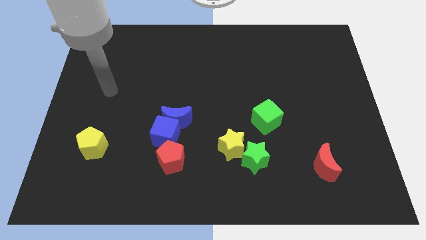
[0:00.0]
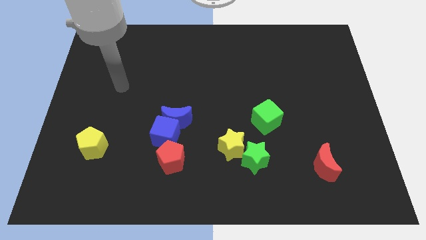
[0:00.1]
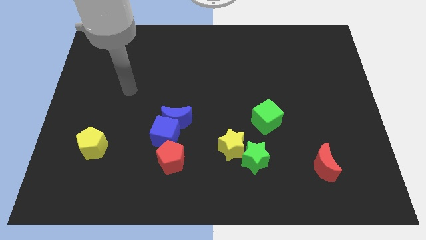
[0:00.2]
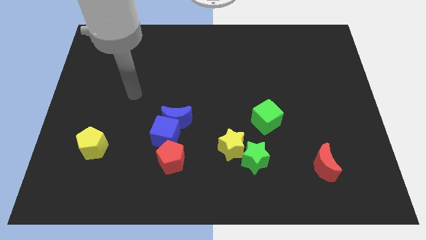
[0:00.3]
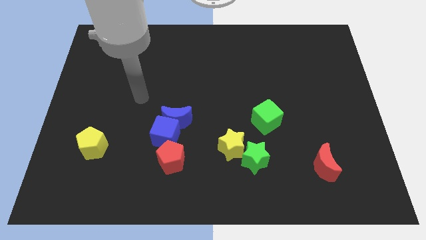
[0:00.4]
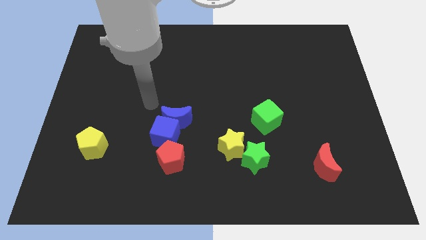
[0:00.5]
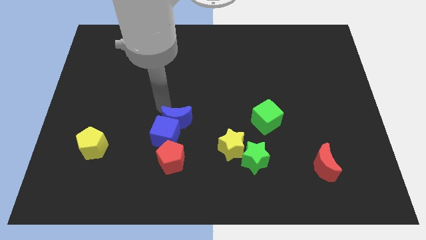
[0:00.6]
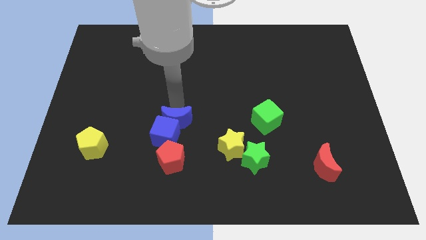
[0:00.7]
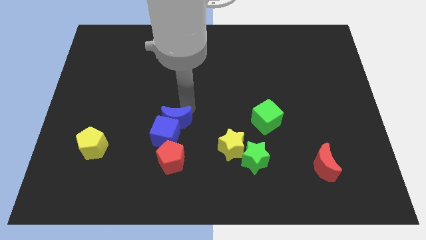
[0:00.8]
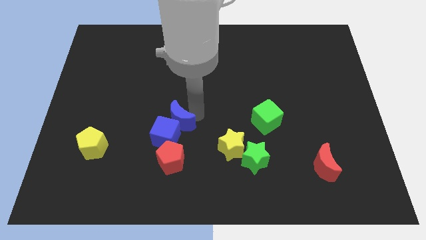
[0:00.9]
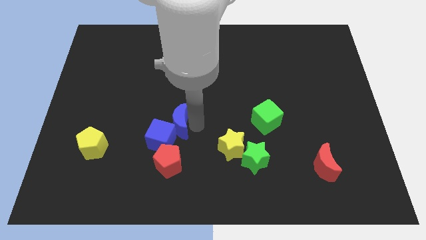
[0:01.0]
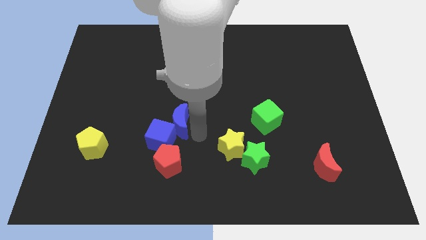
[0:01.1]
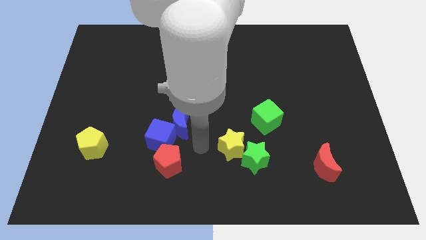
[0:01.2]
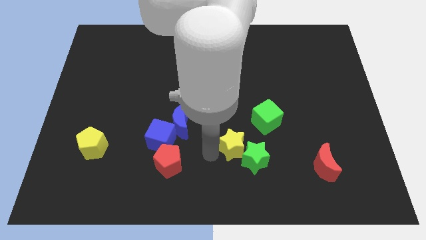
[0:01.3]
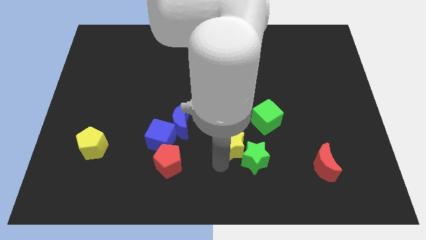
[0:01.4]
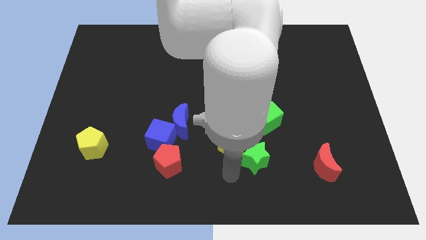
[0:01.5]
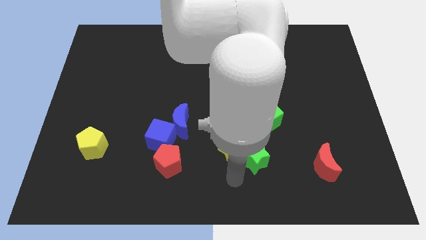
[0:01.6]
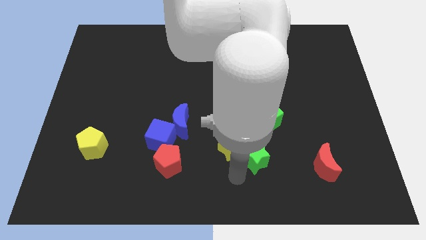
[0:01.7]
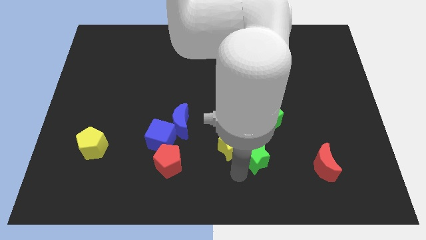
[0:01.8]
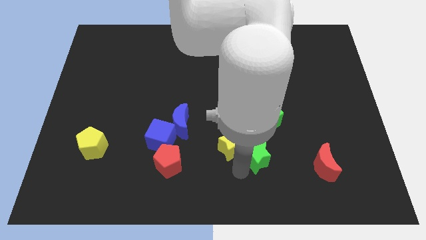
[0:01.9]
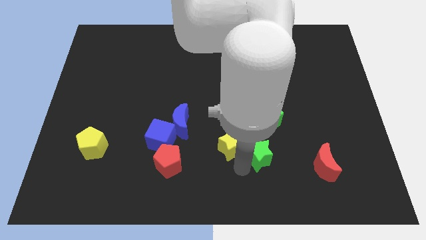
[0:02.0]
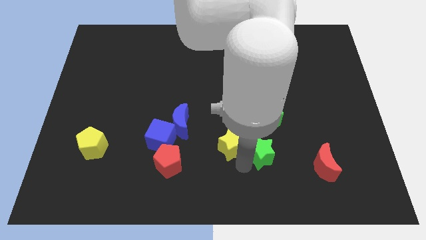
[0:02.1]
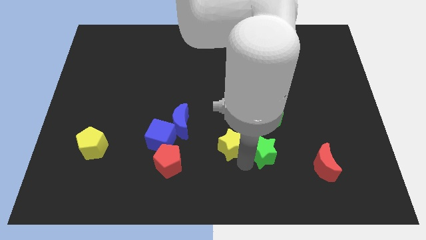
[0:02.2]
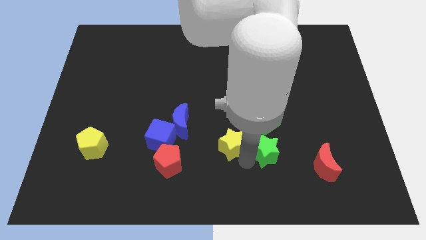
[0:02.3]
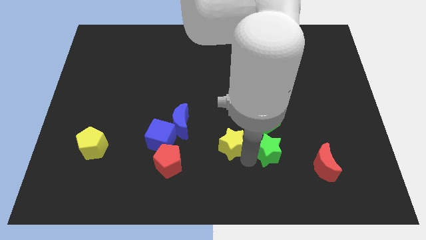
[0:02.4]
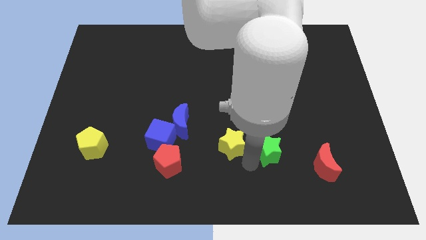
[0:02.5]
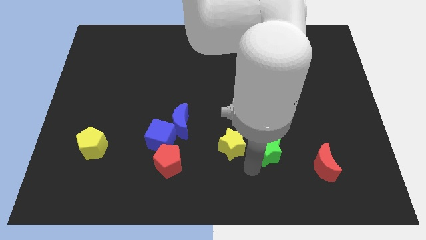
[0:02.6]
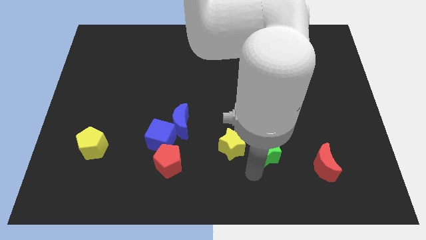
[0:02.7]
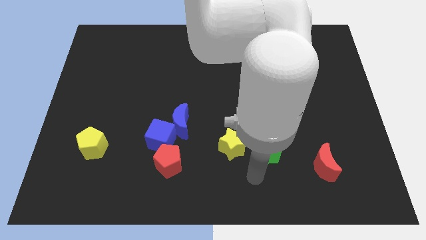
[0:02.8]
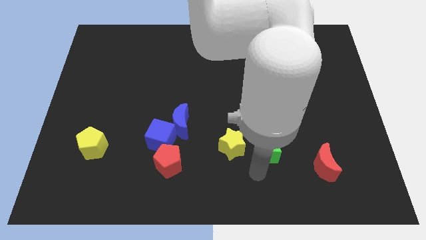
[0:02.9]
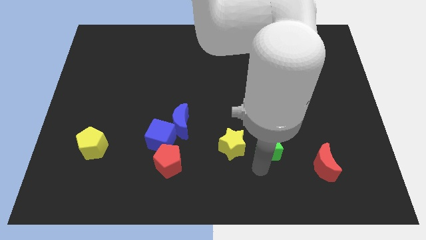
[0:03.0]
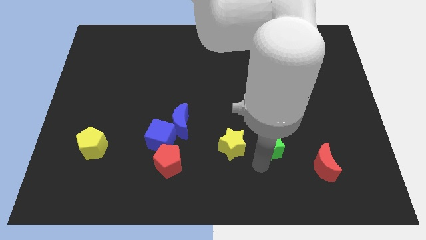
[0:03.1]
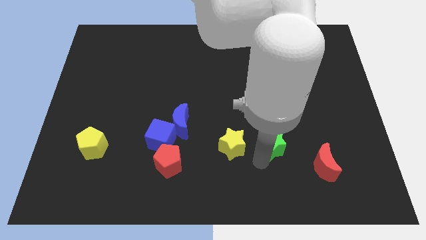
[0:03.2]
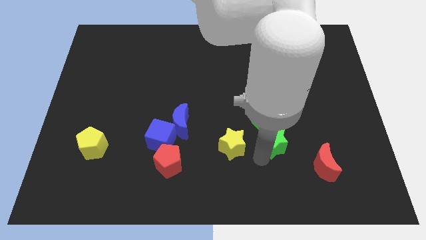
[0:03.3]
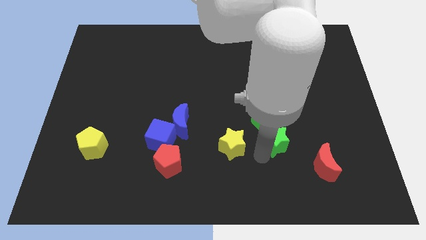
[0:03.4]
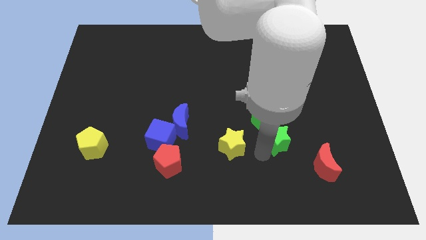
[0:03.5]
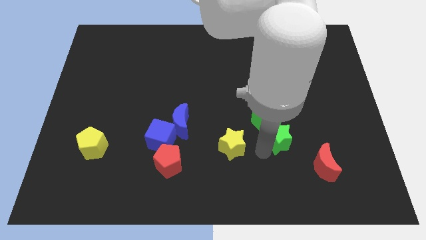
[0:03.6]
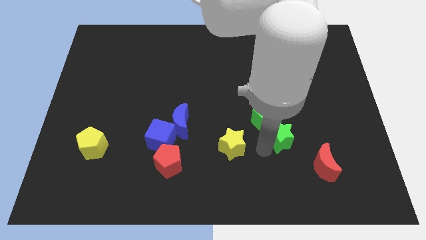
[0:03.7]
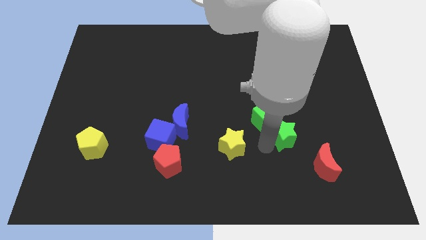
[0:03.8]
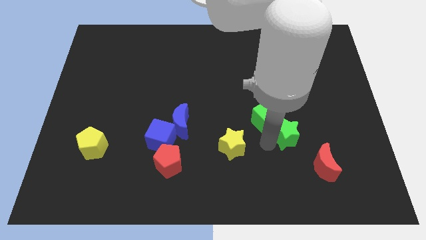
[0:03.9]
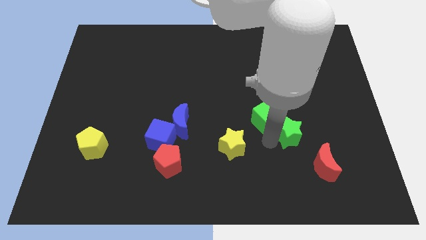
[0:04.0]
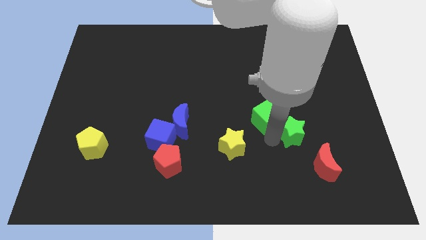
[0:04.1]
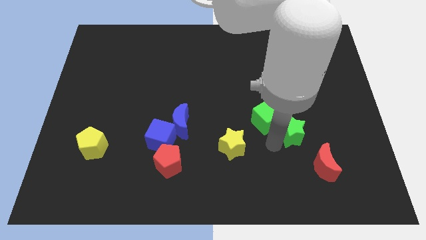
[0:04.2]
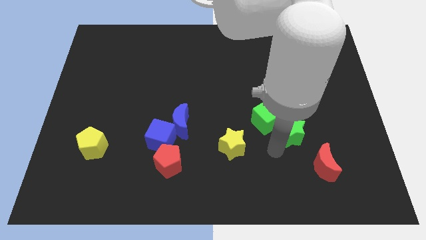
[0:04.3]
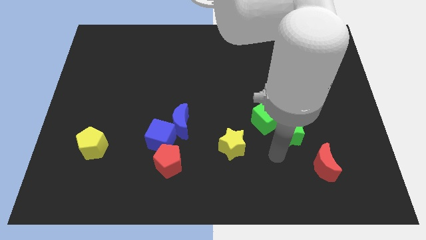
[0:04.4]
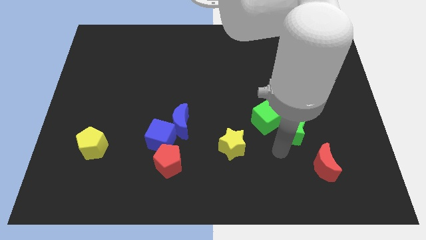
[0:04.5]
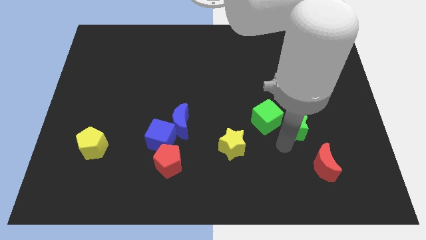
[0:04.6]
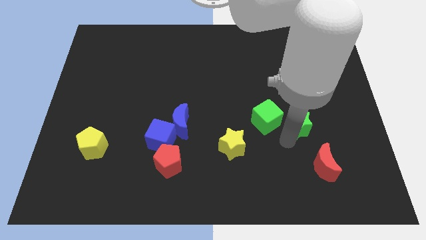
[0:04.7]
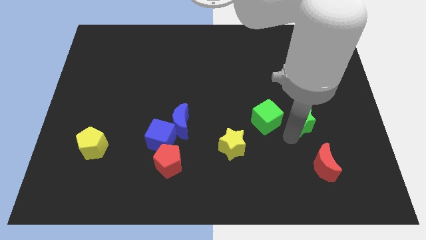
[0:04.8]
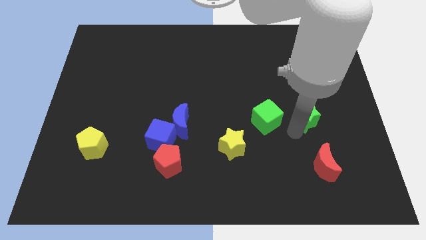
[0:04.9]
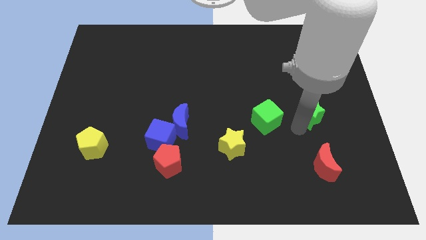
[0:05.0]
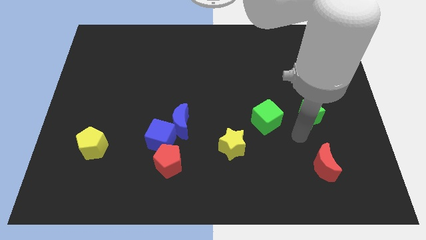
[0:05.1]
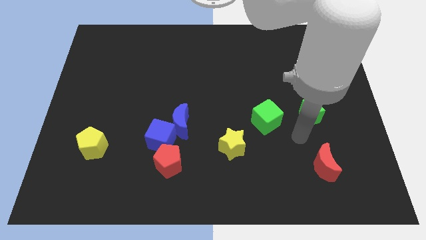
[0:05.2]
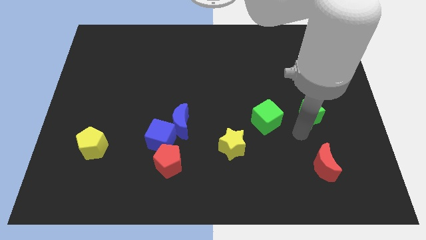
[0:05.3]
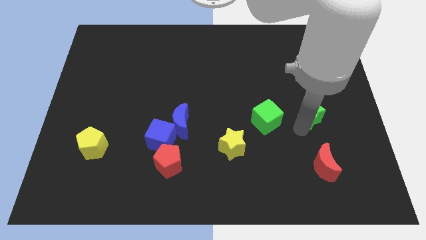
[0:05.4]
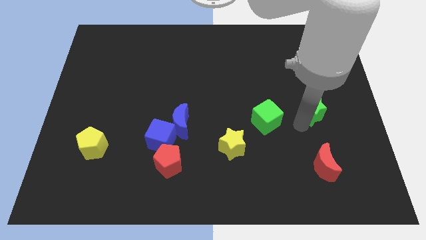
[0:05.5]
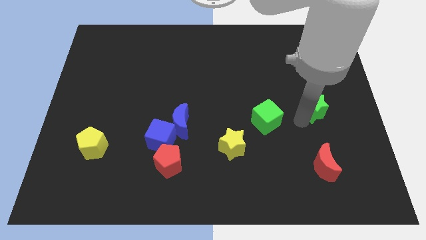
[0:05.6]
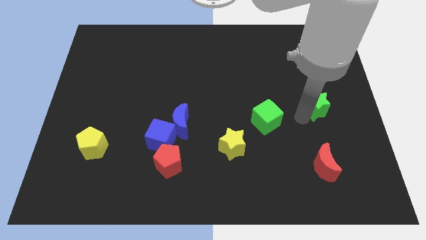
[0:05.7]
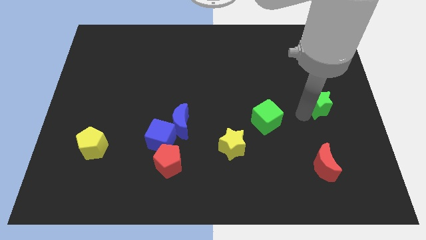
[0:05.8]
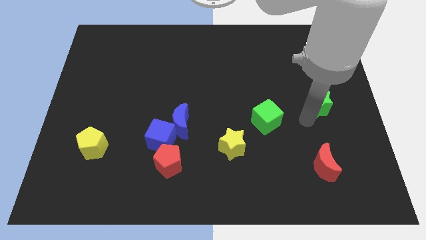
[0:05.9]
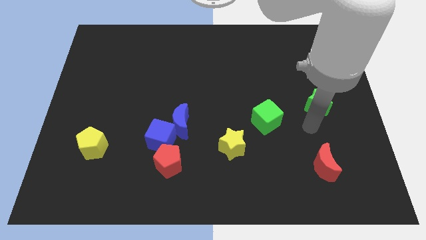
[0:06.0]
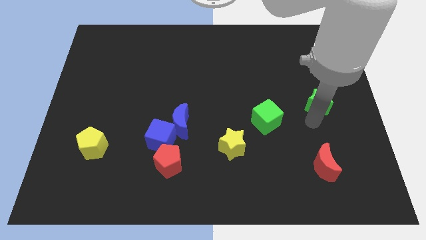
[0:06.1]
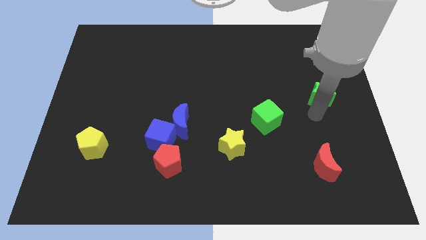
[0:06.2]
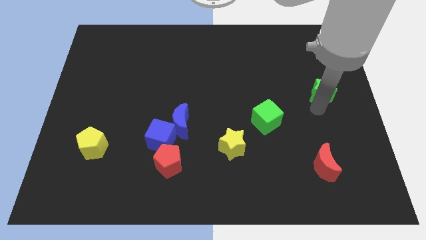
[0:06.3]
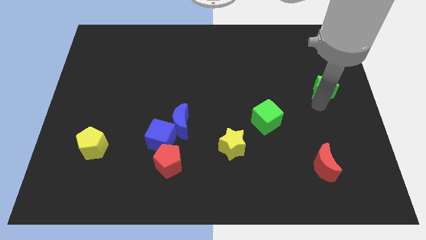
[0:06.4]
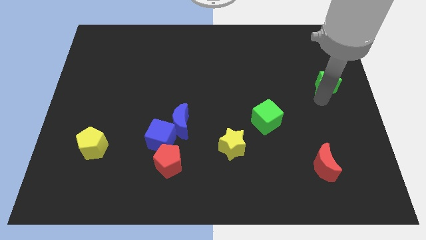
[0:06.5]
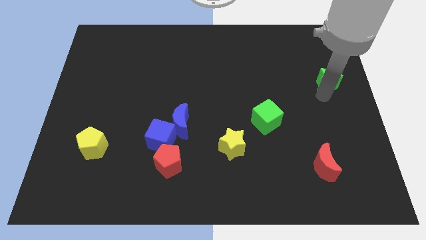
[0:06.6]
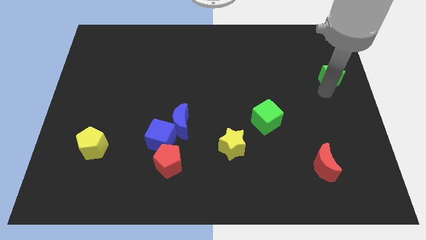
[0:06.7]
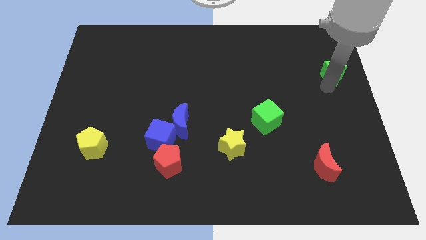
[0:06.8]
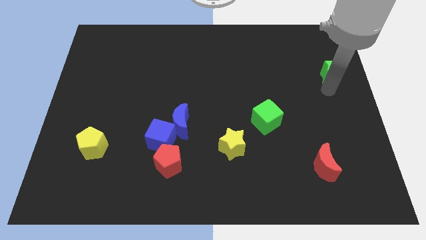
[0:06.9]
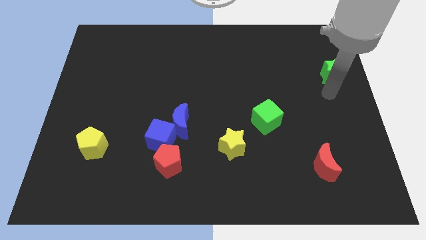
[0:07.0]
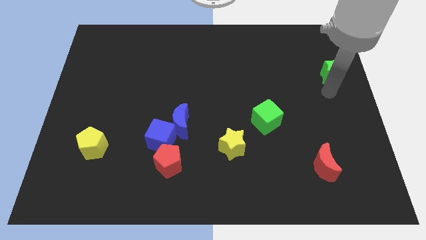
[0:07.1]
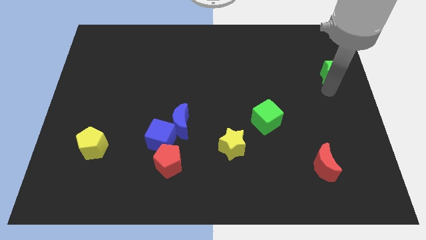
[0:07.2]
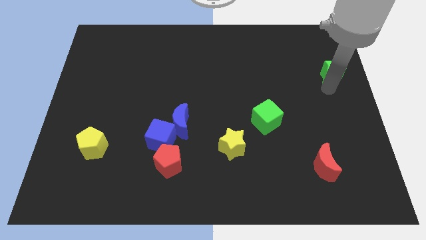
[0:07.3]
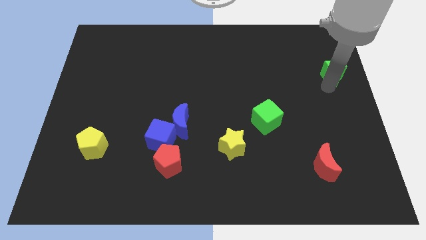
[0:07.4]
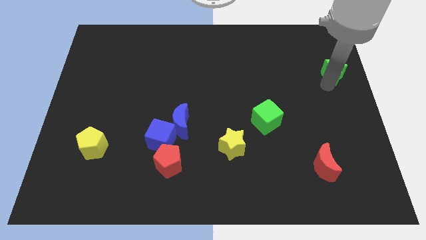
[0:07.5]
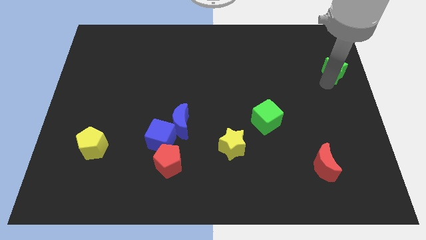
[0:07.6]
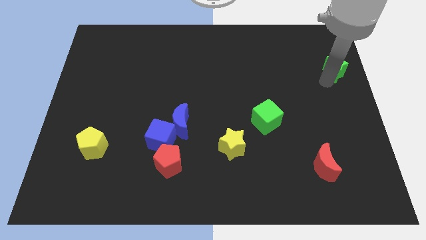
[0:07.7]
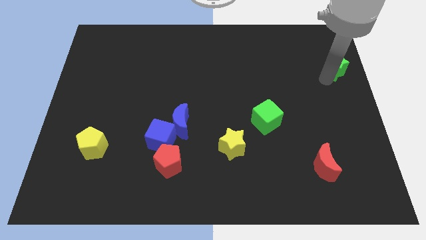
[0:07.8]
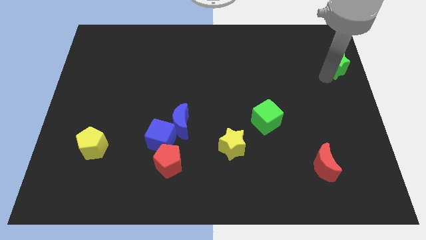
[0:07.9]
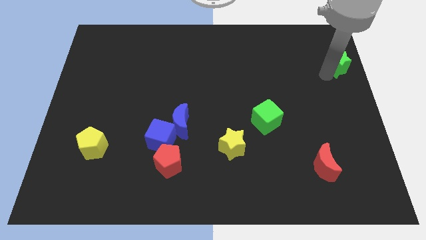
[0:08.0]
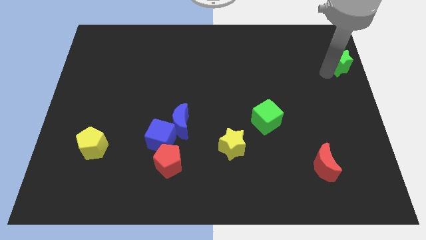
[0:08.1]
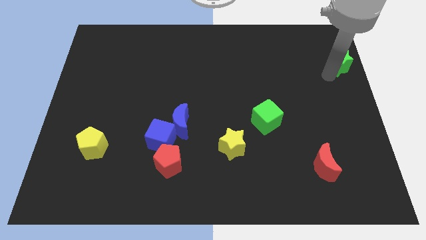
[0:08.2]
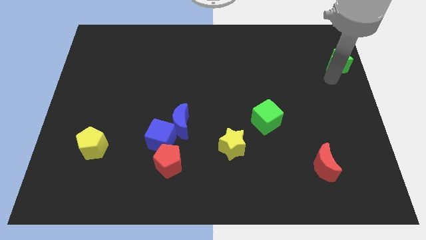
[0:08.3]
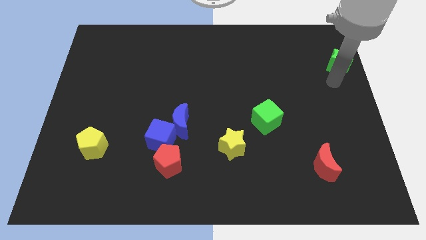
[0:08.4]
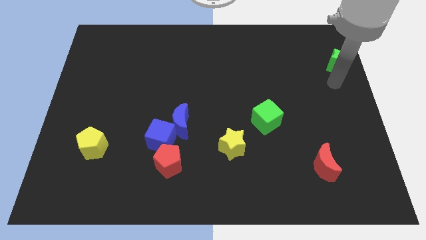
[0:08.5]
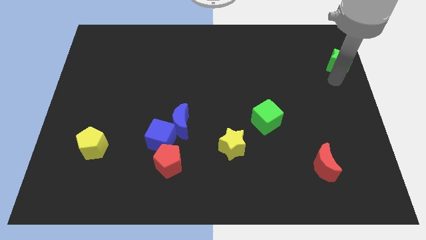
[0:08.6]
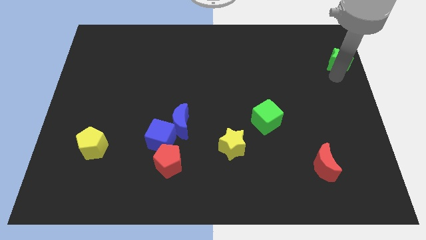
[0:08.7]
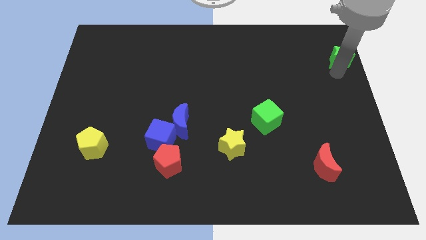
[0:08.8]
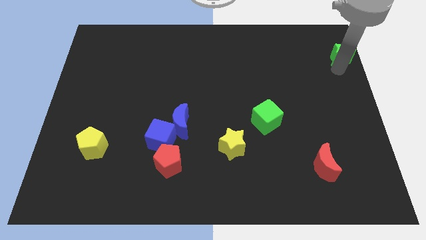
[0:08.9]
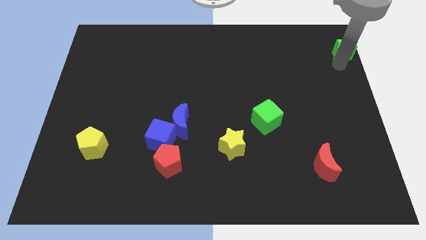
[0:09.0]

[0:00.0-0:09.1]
slide the green star to the top right corner
